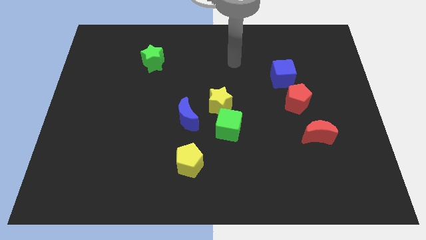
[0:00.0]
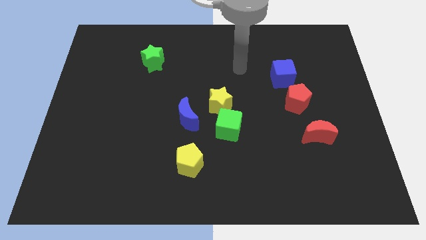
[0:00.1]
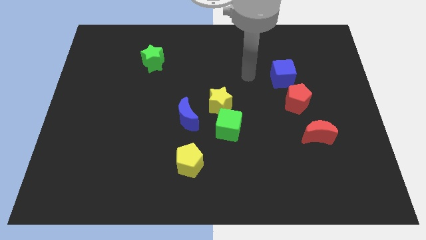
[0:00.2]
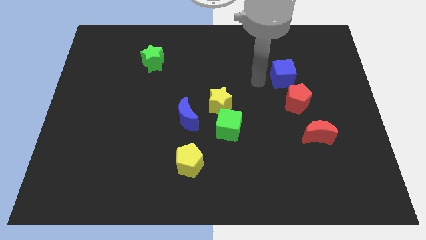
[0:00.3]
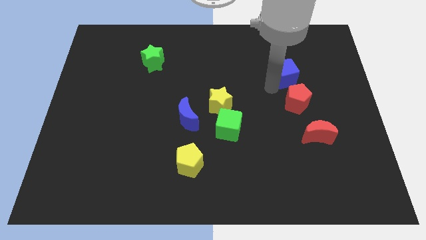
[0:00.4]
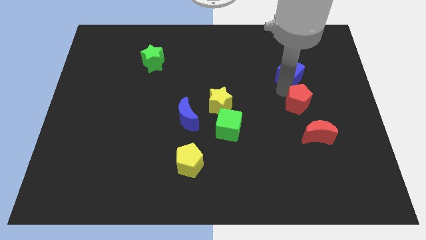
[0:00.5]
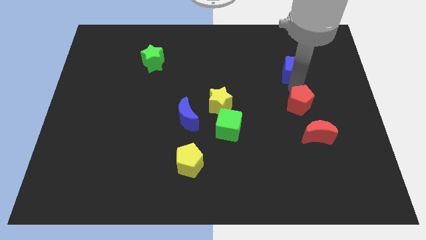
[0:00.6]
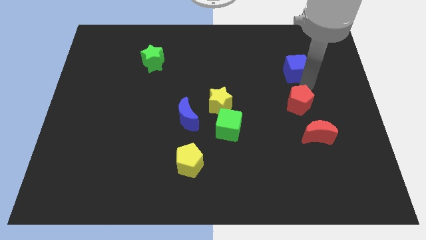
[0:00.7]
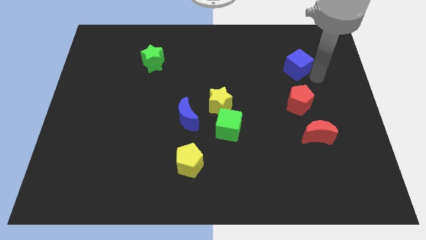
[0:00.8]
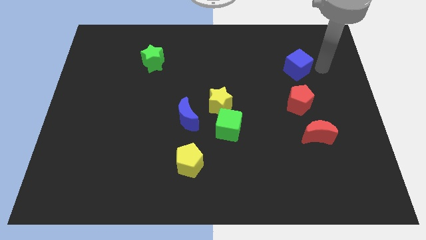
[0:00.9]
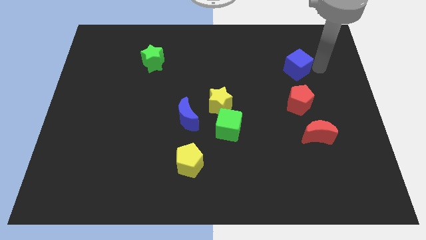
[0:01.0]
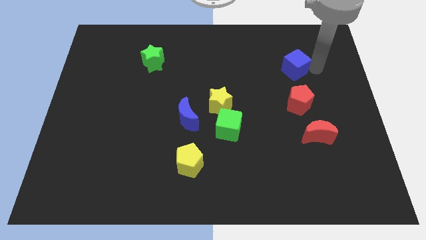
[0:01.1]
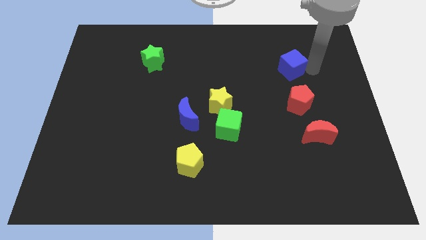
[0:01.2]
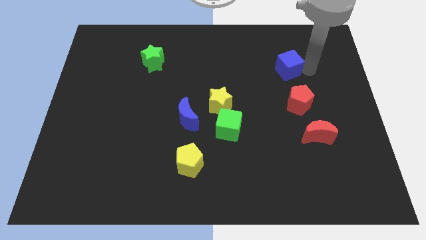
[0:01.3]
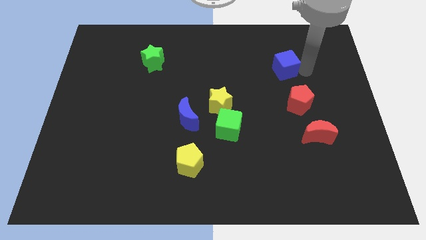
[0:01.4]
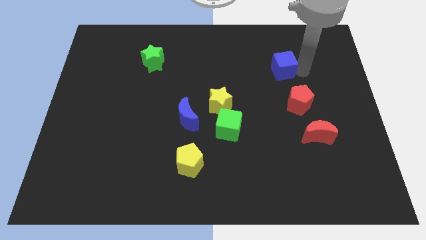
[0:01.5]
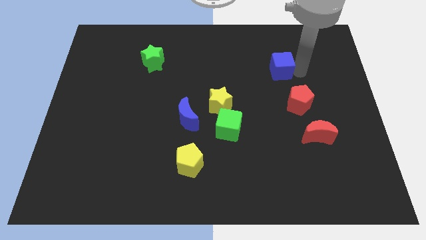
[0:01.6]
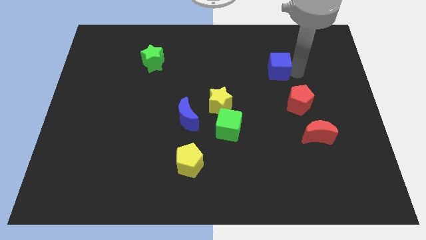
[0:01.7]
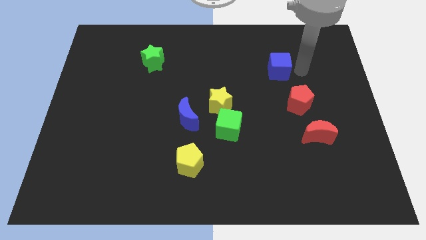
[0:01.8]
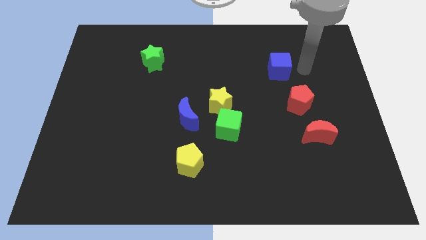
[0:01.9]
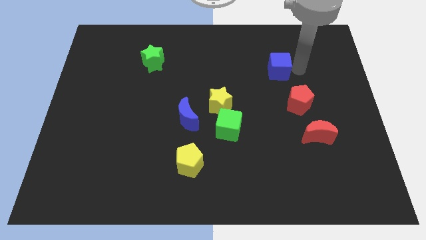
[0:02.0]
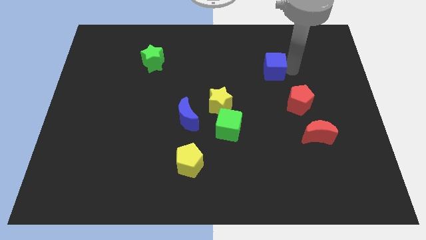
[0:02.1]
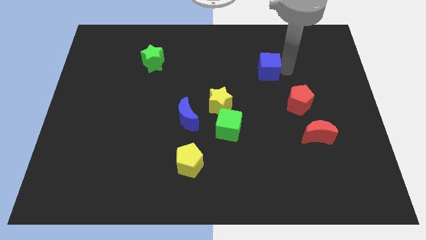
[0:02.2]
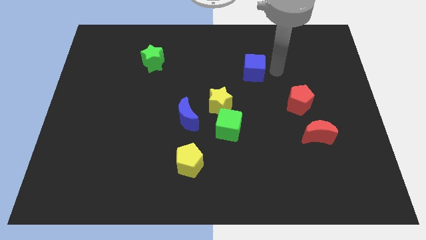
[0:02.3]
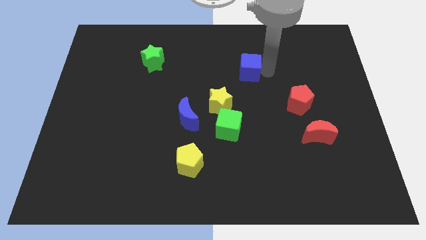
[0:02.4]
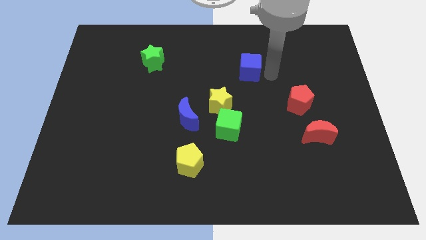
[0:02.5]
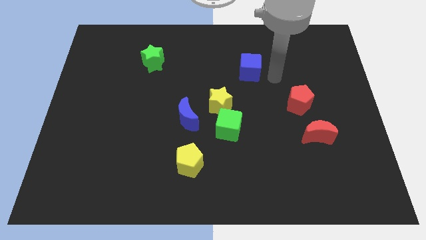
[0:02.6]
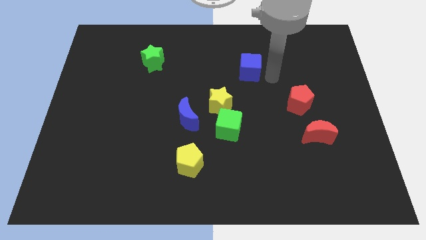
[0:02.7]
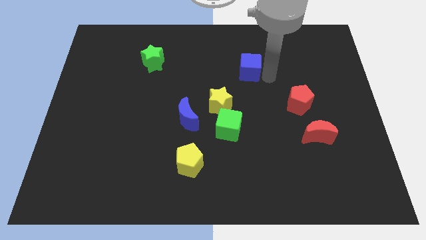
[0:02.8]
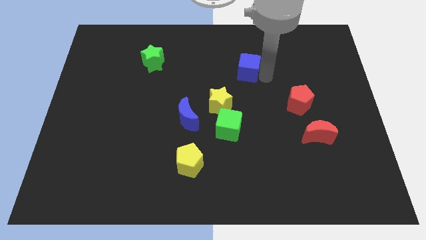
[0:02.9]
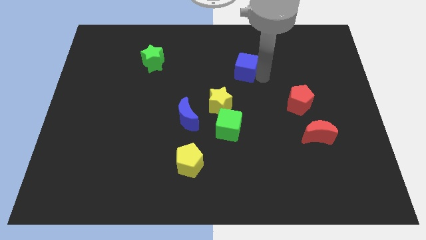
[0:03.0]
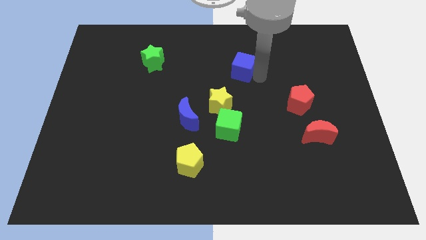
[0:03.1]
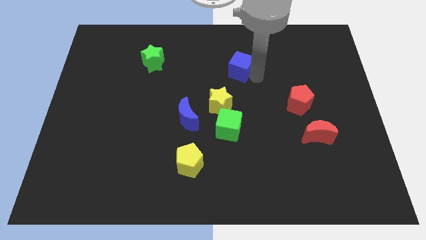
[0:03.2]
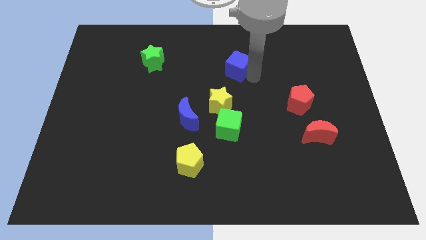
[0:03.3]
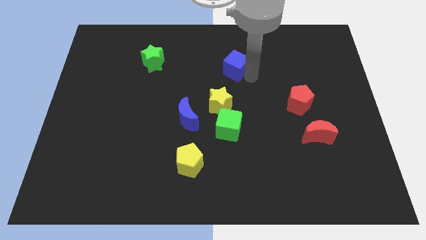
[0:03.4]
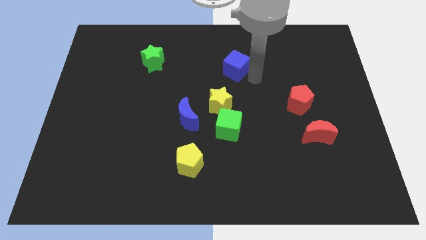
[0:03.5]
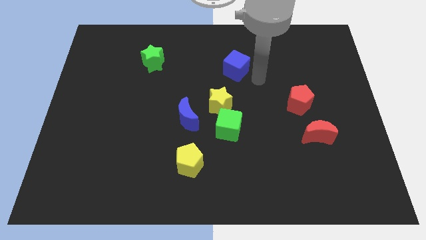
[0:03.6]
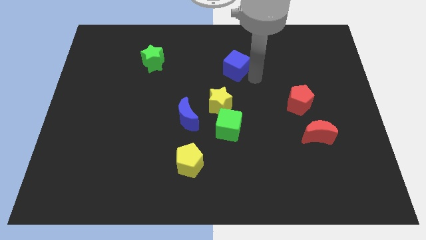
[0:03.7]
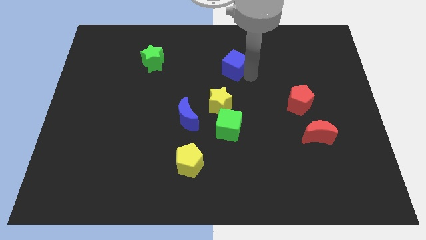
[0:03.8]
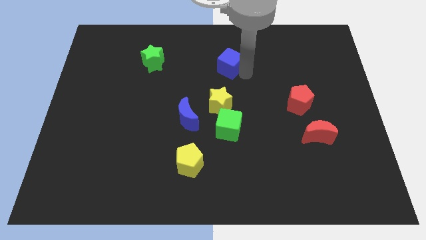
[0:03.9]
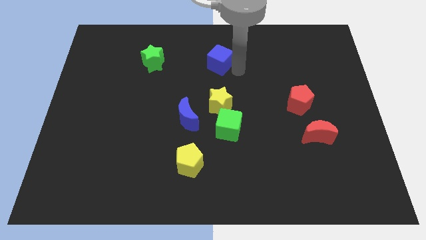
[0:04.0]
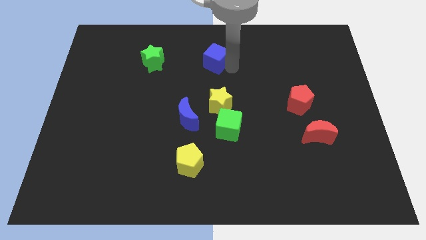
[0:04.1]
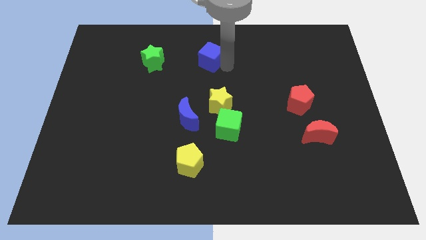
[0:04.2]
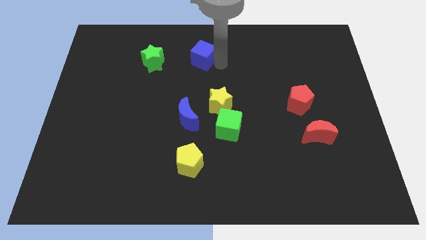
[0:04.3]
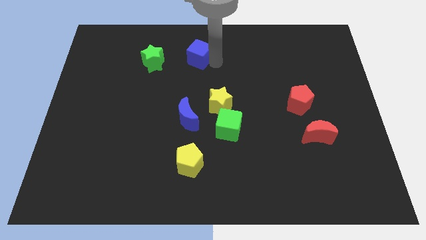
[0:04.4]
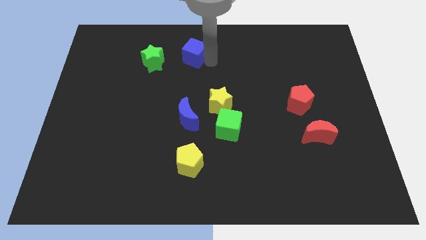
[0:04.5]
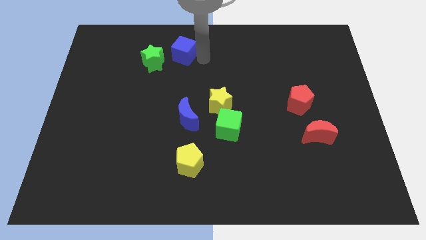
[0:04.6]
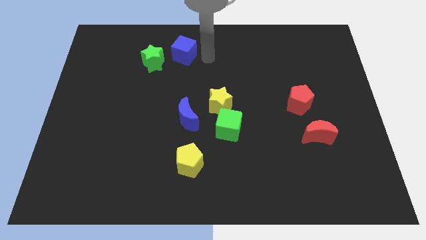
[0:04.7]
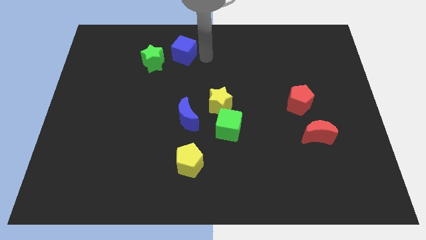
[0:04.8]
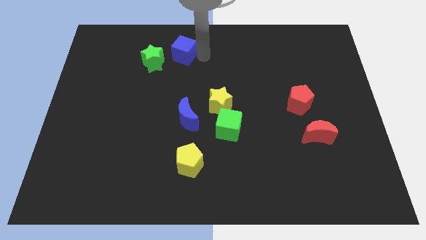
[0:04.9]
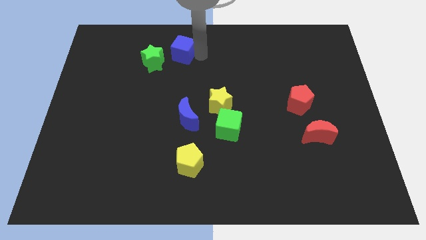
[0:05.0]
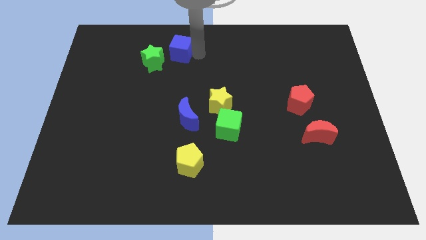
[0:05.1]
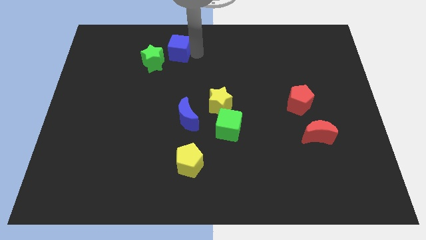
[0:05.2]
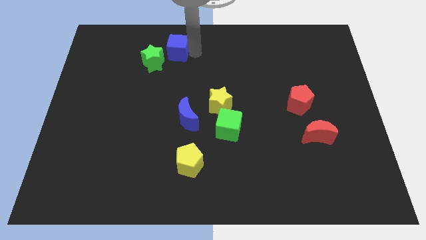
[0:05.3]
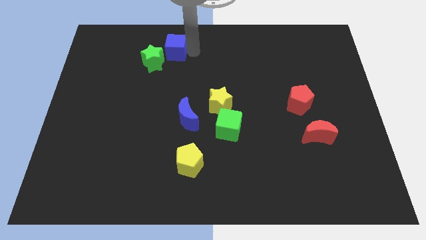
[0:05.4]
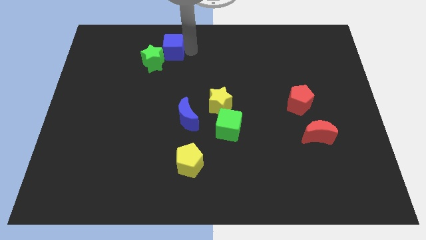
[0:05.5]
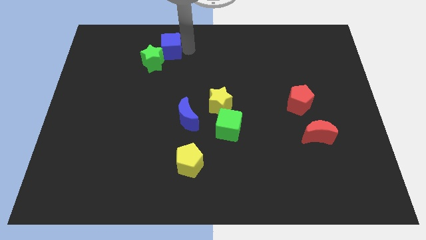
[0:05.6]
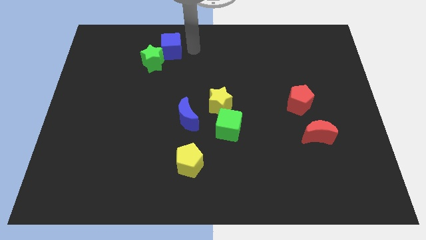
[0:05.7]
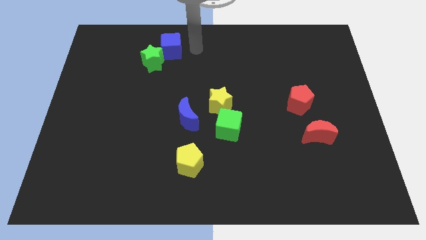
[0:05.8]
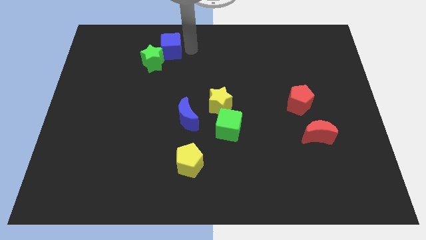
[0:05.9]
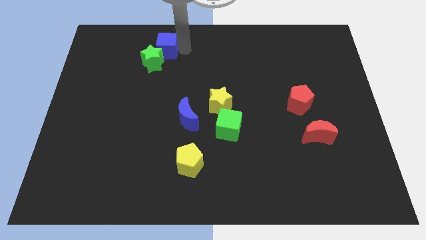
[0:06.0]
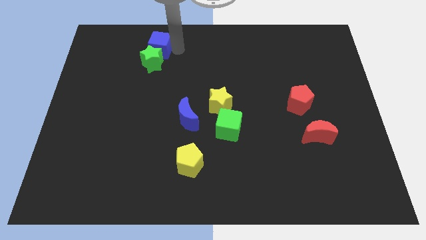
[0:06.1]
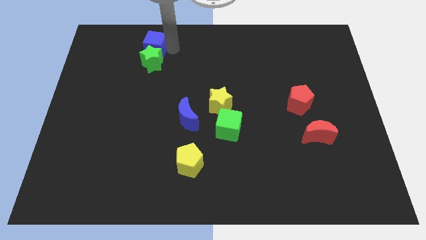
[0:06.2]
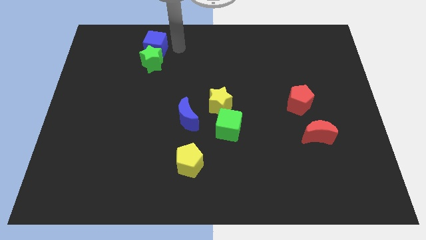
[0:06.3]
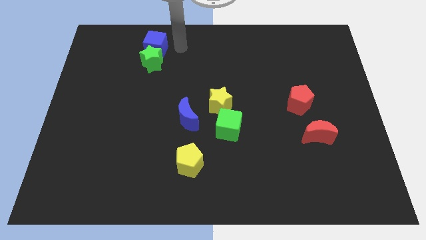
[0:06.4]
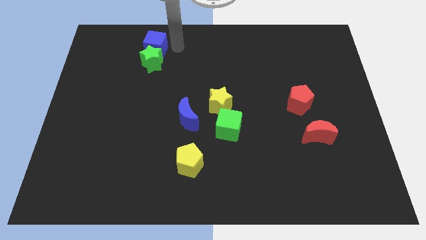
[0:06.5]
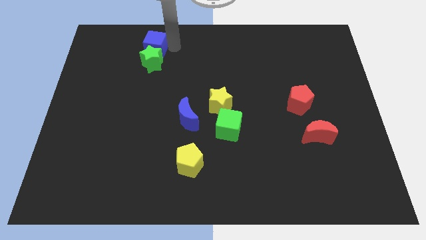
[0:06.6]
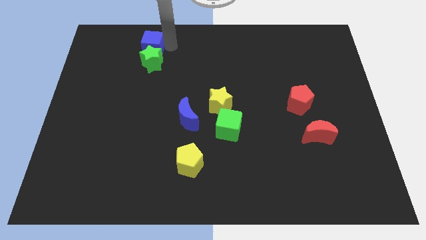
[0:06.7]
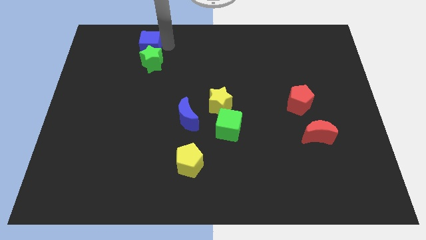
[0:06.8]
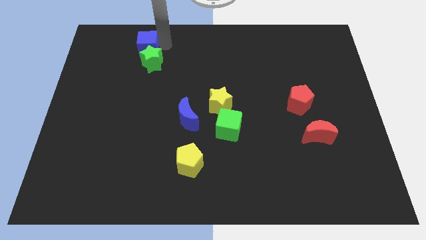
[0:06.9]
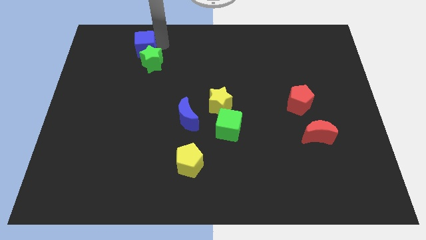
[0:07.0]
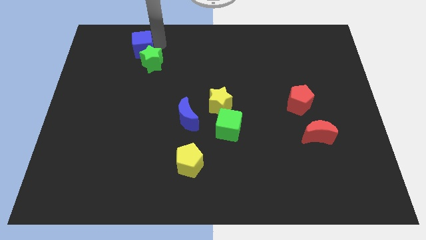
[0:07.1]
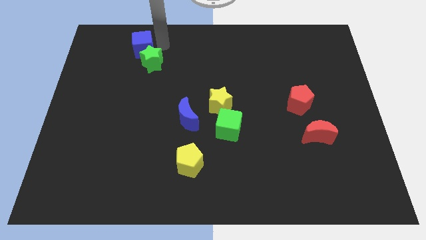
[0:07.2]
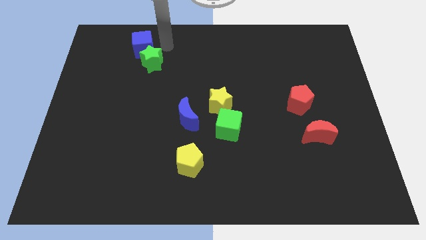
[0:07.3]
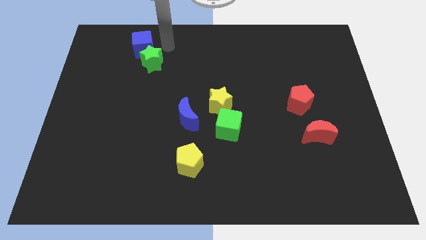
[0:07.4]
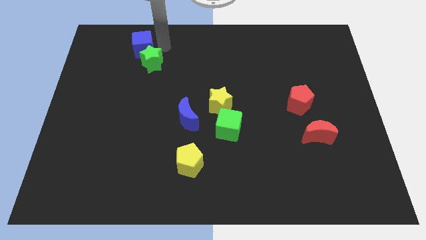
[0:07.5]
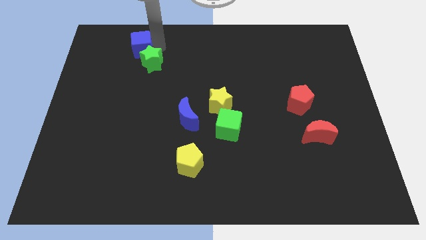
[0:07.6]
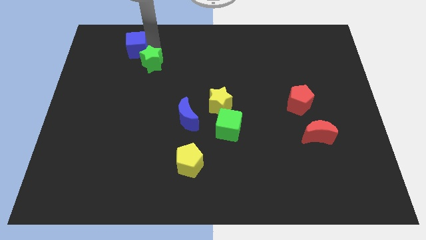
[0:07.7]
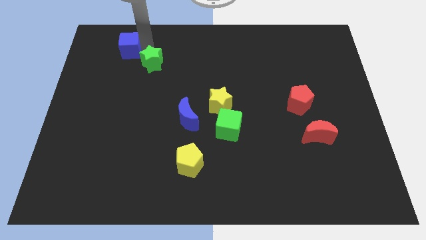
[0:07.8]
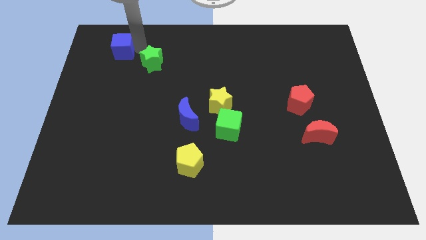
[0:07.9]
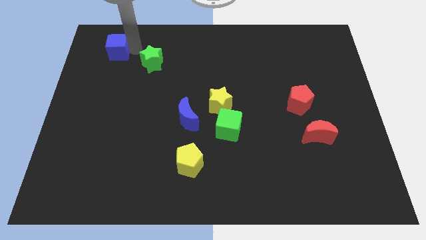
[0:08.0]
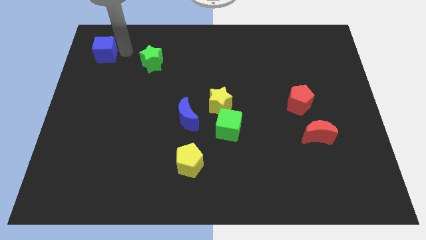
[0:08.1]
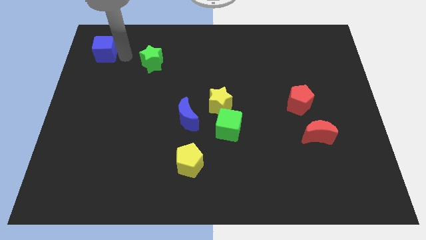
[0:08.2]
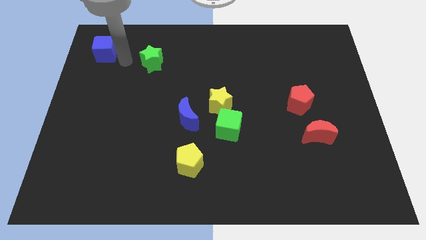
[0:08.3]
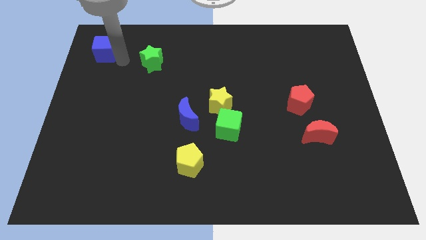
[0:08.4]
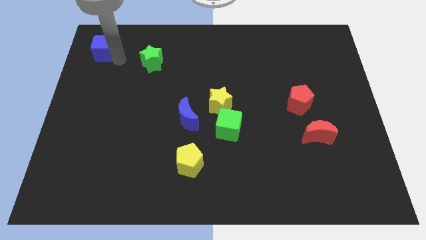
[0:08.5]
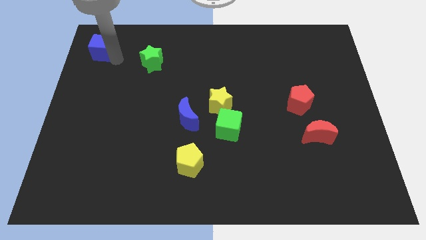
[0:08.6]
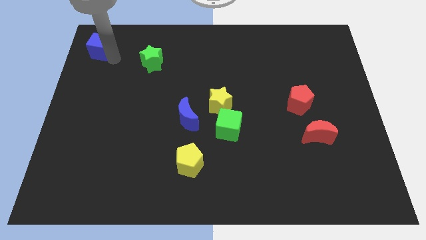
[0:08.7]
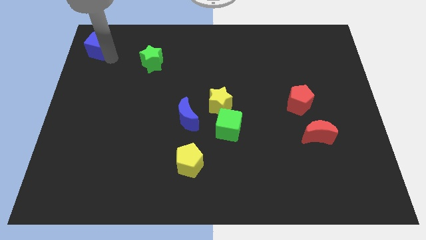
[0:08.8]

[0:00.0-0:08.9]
move the blue cube to the upper left corner
